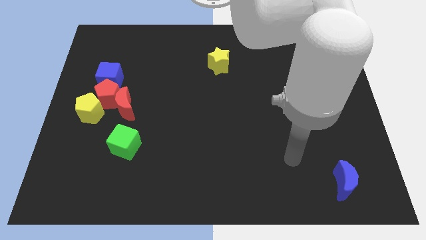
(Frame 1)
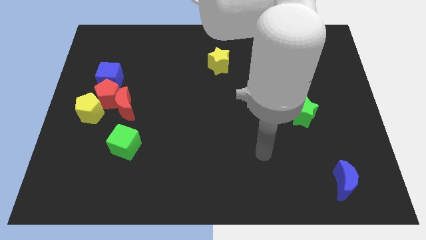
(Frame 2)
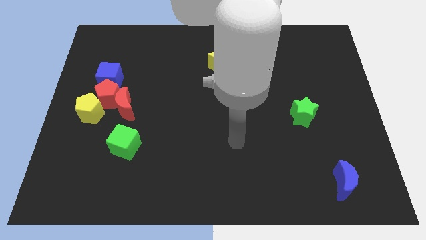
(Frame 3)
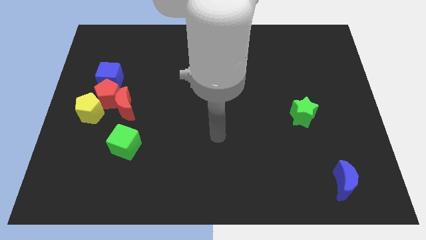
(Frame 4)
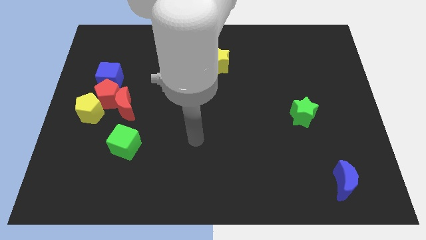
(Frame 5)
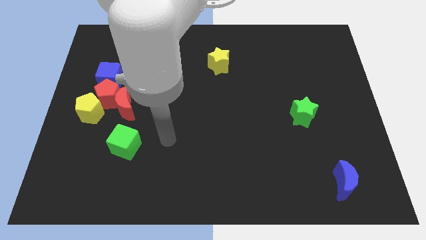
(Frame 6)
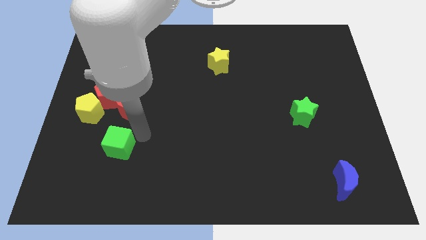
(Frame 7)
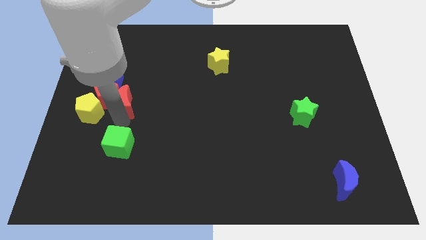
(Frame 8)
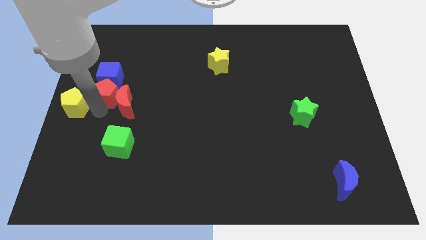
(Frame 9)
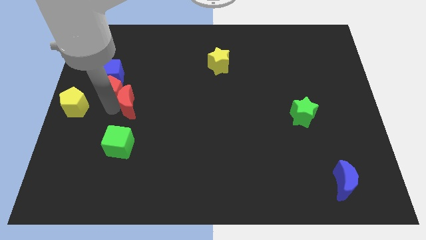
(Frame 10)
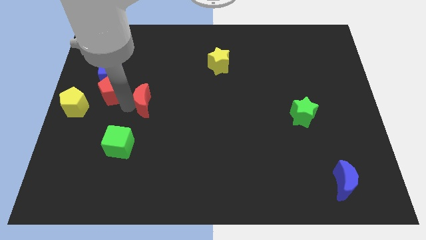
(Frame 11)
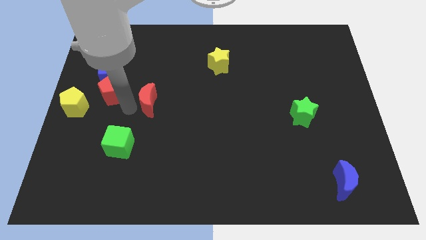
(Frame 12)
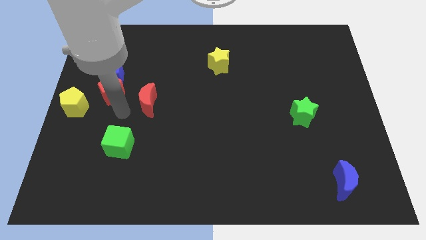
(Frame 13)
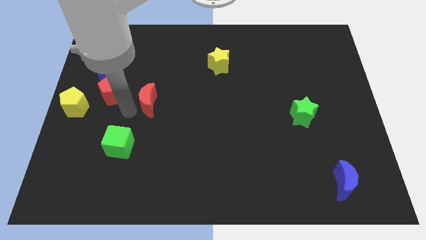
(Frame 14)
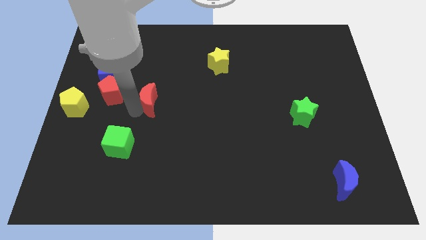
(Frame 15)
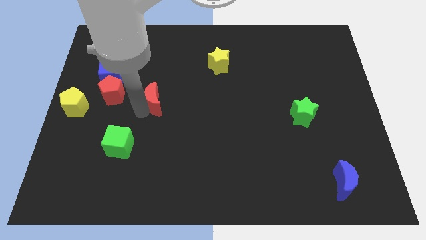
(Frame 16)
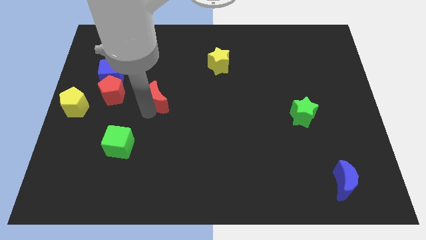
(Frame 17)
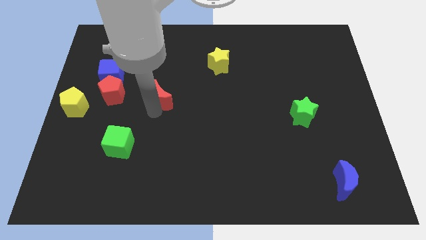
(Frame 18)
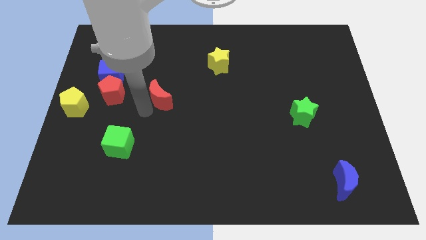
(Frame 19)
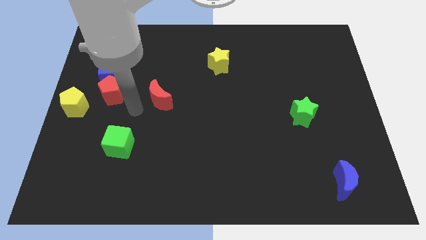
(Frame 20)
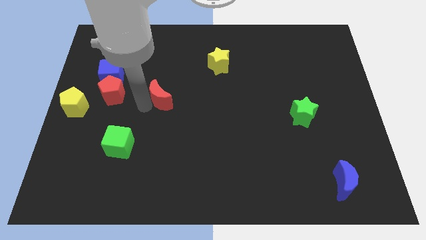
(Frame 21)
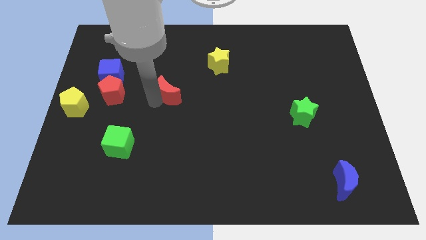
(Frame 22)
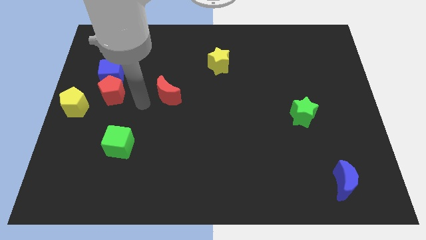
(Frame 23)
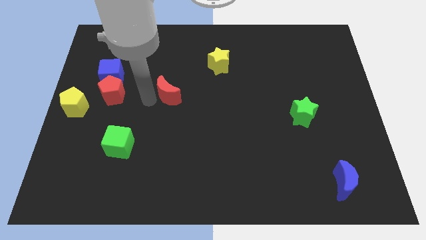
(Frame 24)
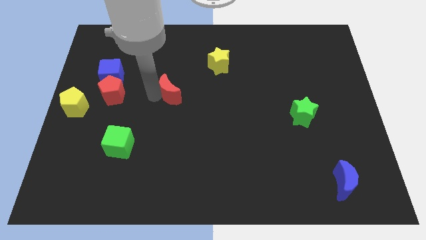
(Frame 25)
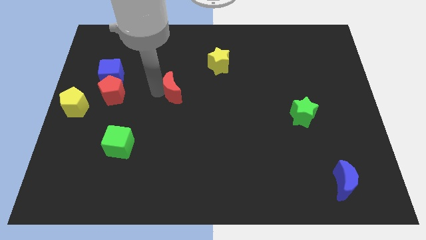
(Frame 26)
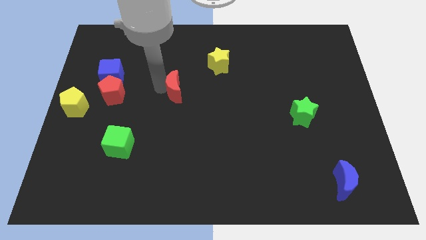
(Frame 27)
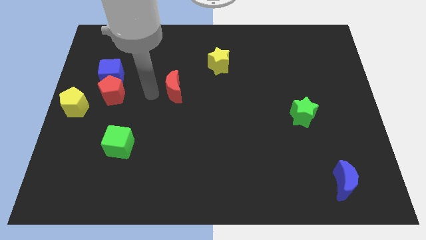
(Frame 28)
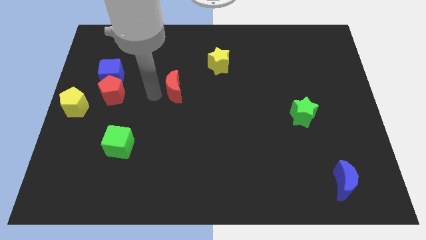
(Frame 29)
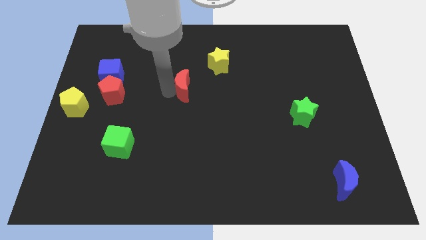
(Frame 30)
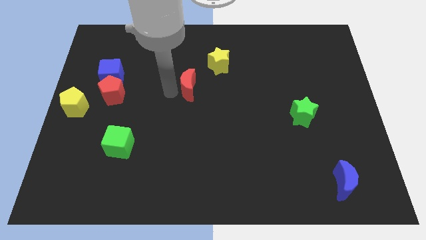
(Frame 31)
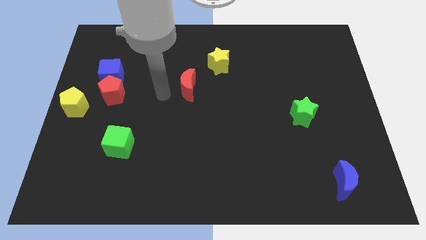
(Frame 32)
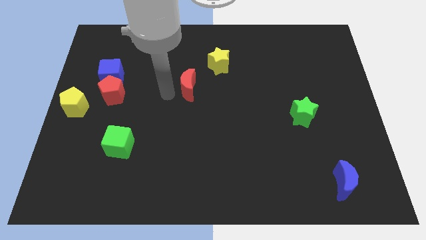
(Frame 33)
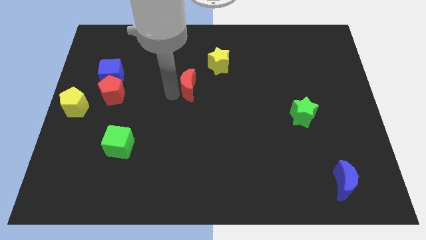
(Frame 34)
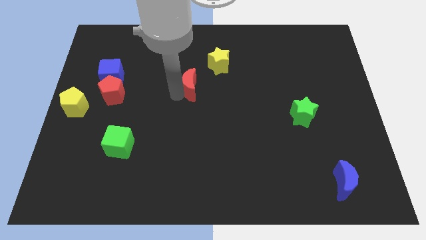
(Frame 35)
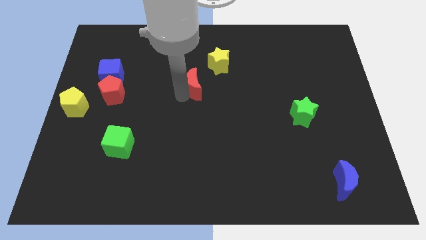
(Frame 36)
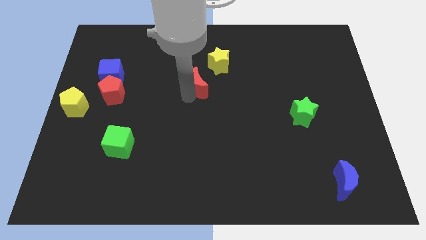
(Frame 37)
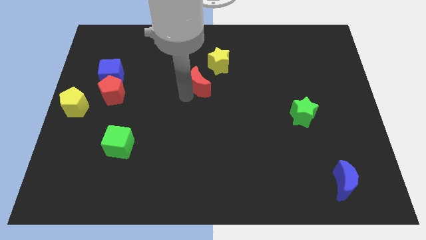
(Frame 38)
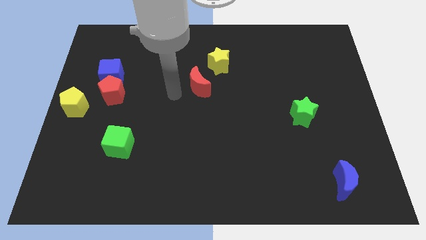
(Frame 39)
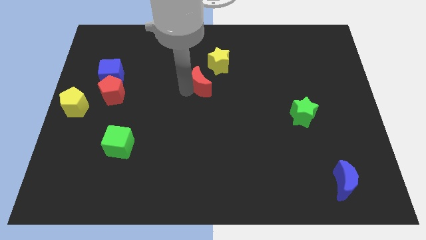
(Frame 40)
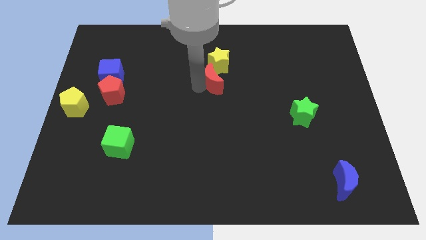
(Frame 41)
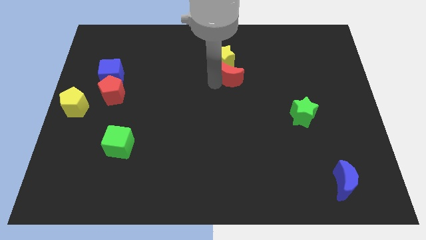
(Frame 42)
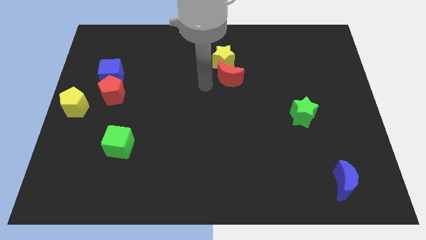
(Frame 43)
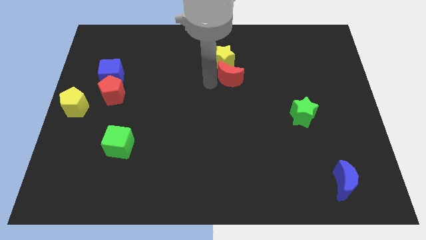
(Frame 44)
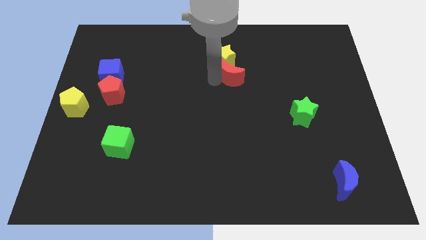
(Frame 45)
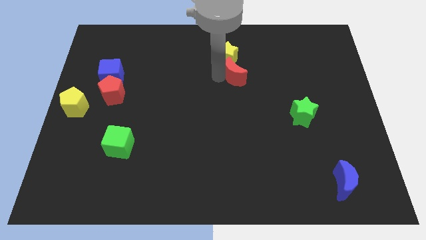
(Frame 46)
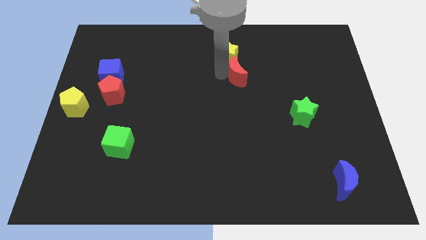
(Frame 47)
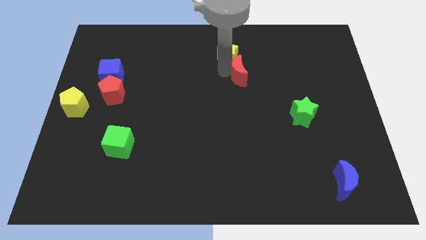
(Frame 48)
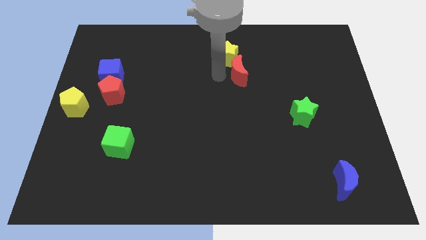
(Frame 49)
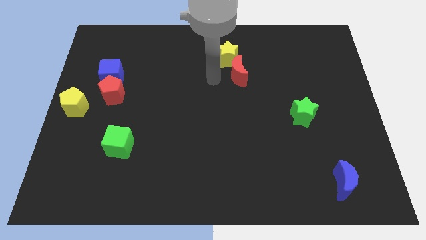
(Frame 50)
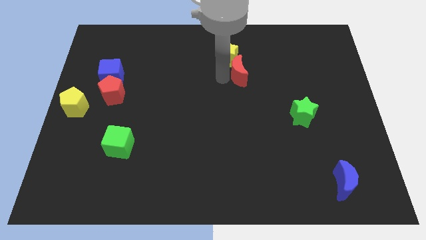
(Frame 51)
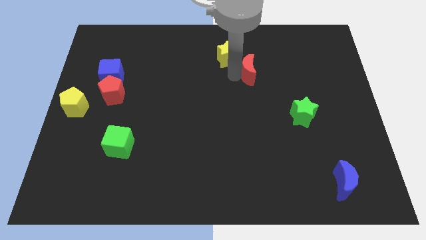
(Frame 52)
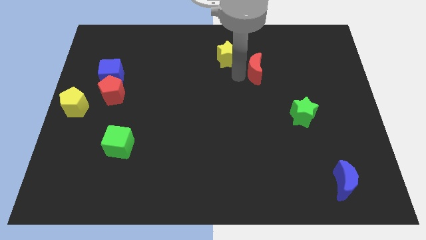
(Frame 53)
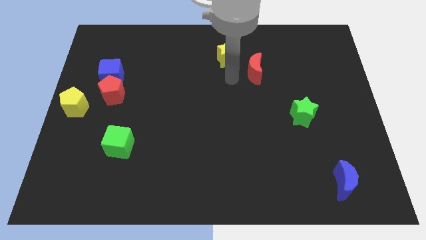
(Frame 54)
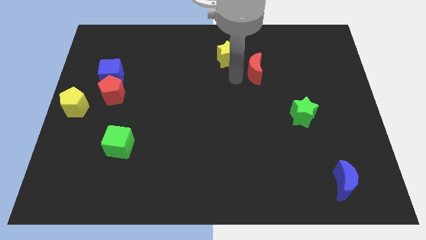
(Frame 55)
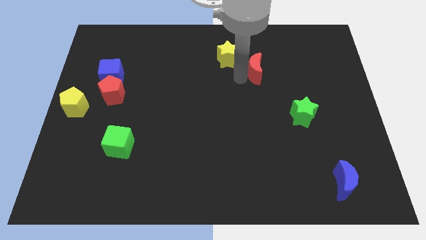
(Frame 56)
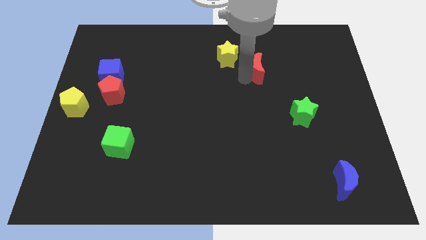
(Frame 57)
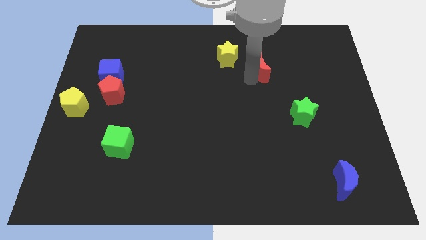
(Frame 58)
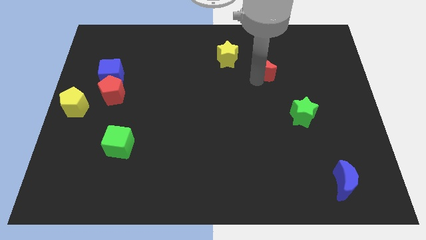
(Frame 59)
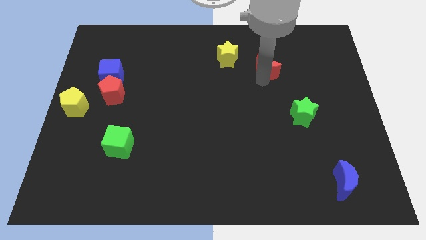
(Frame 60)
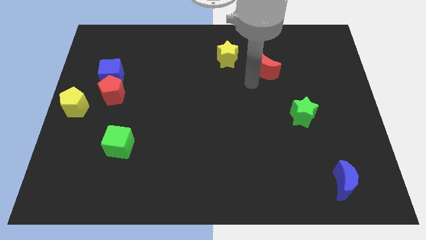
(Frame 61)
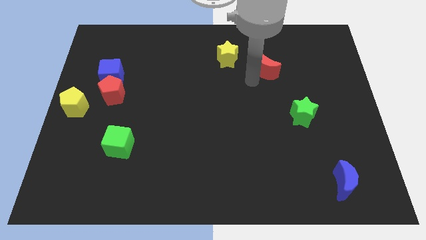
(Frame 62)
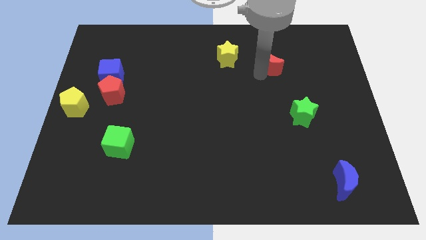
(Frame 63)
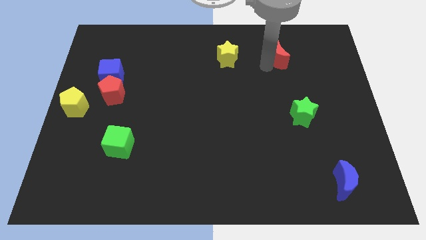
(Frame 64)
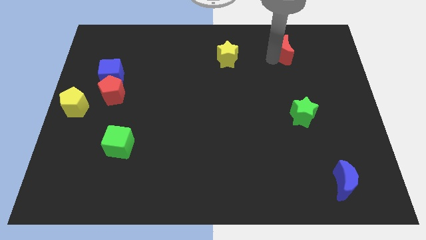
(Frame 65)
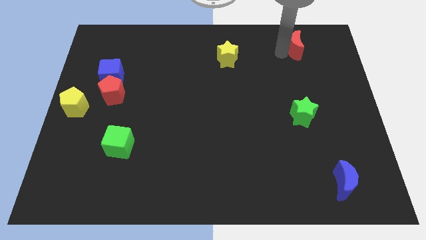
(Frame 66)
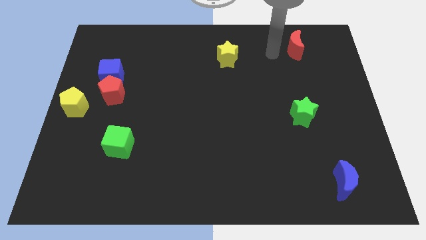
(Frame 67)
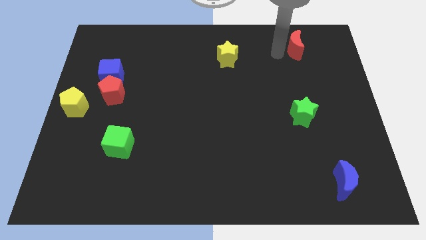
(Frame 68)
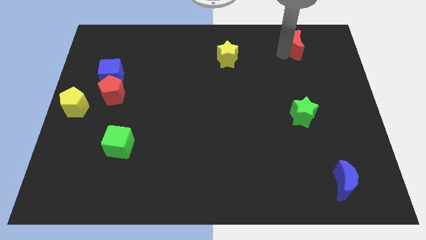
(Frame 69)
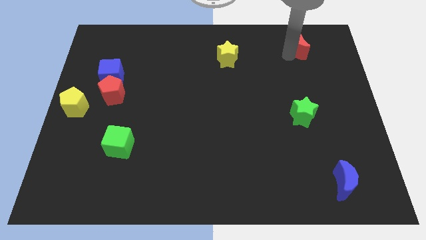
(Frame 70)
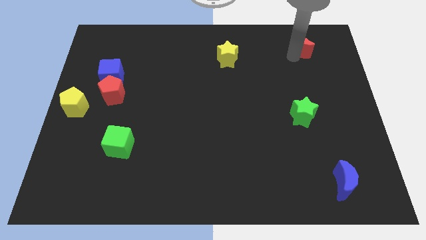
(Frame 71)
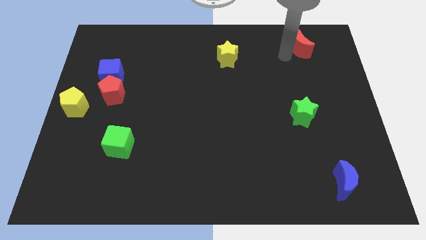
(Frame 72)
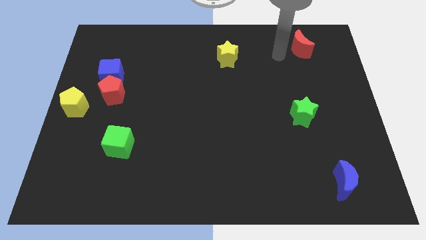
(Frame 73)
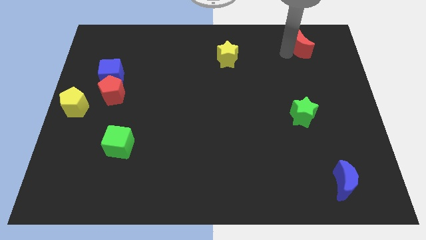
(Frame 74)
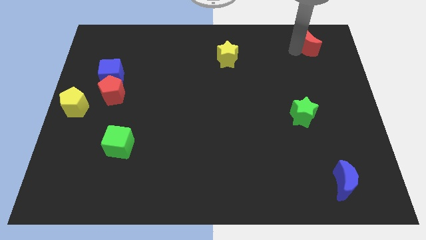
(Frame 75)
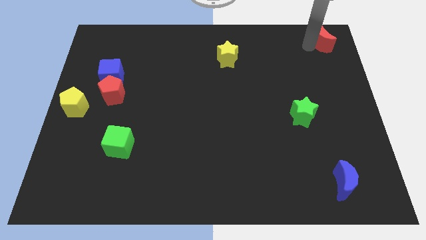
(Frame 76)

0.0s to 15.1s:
put the red moon to the top right
